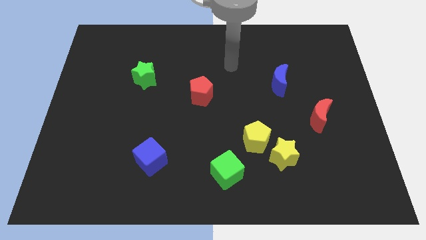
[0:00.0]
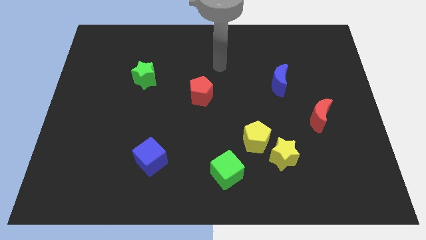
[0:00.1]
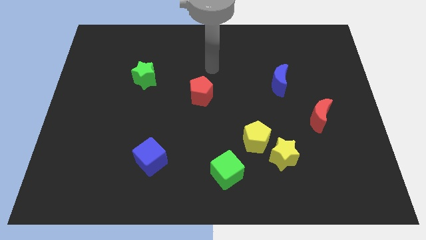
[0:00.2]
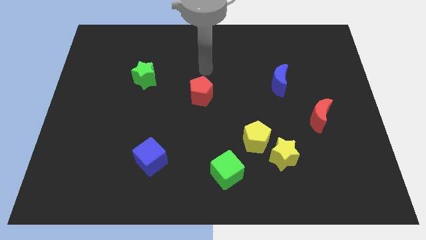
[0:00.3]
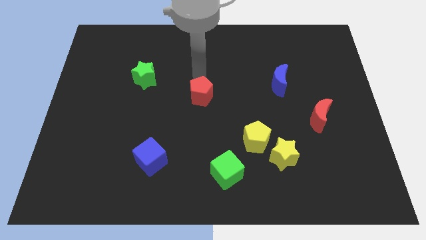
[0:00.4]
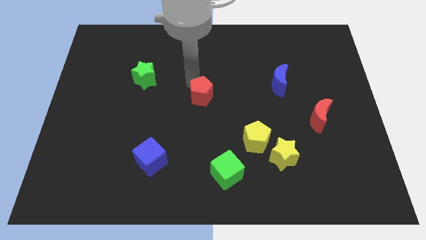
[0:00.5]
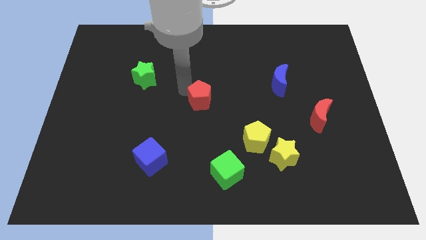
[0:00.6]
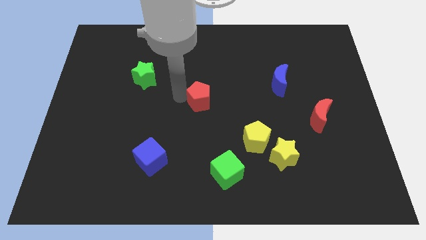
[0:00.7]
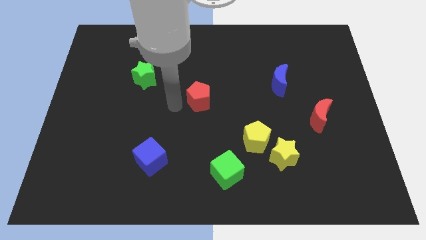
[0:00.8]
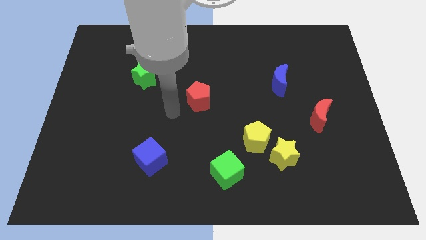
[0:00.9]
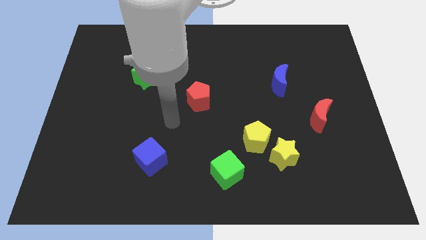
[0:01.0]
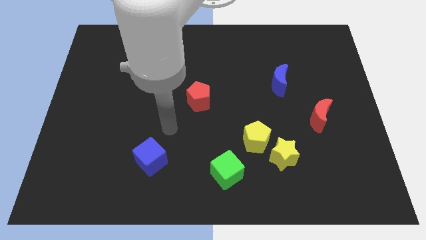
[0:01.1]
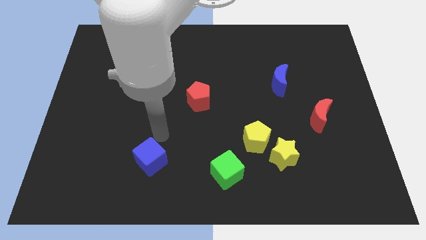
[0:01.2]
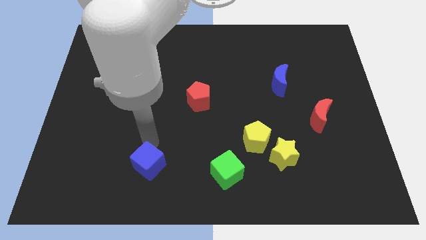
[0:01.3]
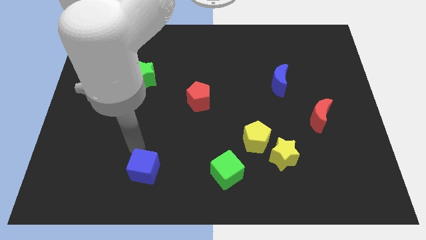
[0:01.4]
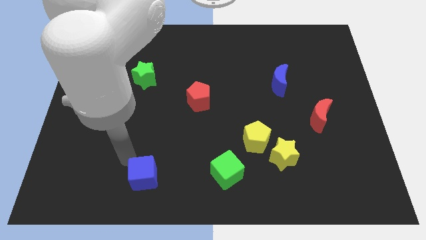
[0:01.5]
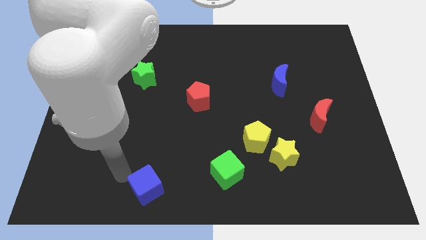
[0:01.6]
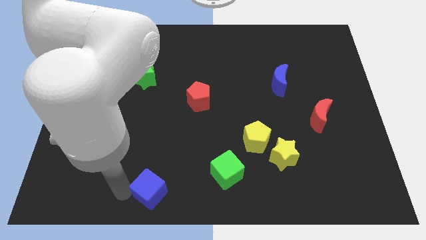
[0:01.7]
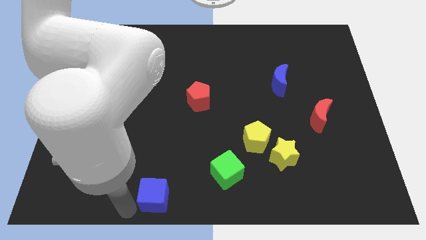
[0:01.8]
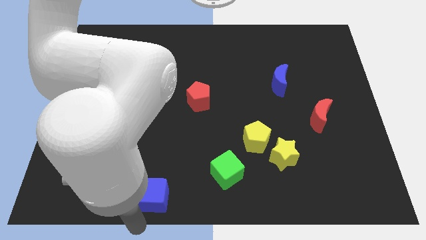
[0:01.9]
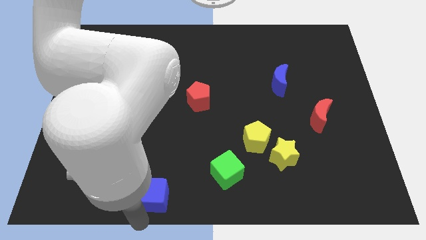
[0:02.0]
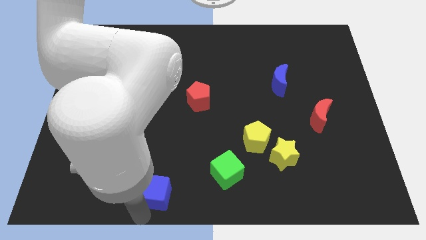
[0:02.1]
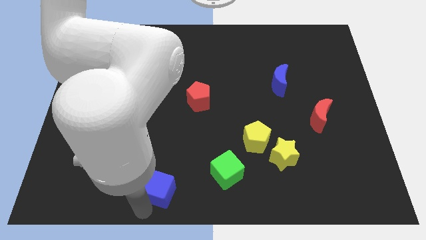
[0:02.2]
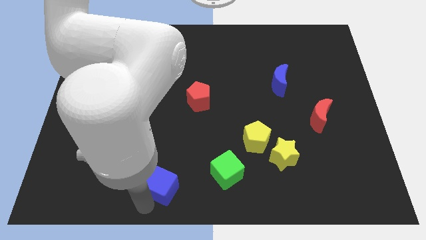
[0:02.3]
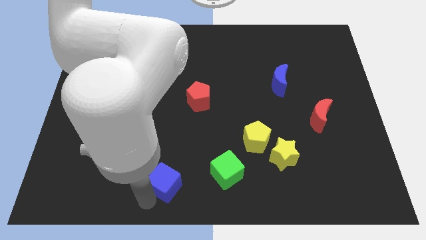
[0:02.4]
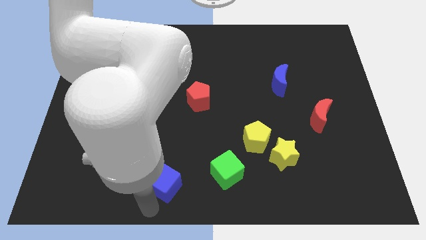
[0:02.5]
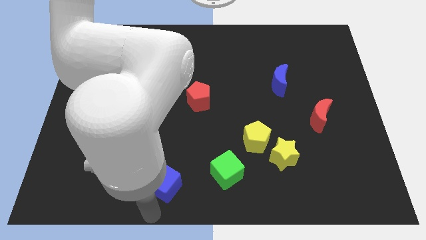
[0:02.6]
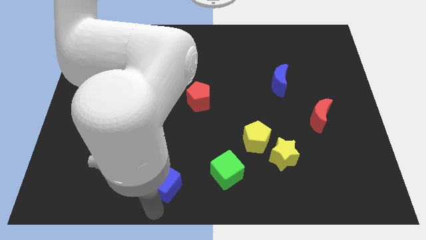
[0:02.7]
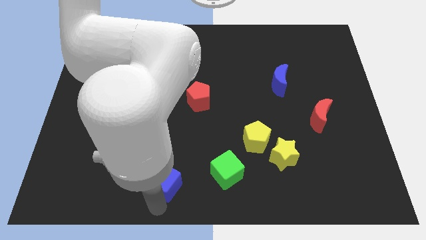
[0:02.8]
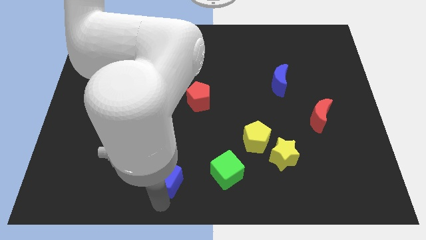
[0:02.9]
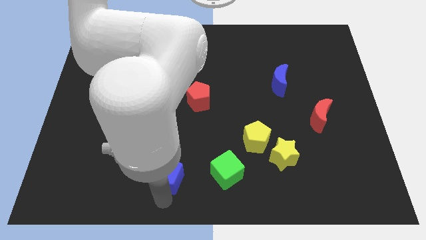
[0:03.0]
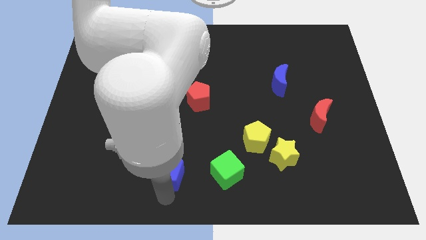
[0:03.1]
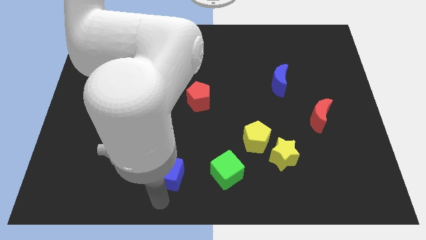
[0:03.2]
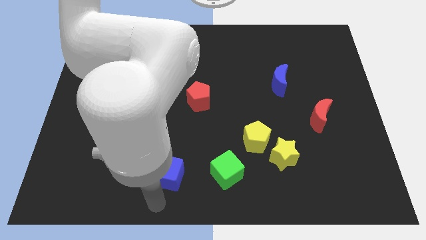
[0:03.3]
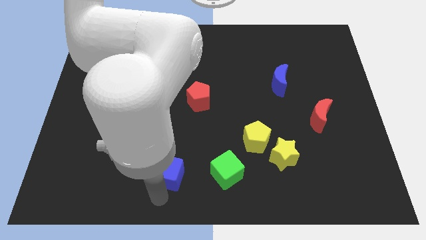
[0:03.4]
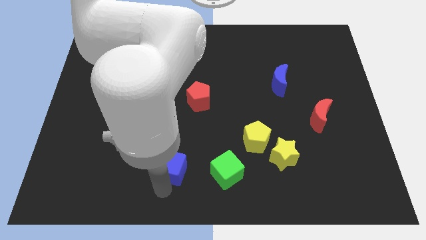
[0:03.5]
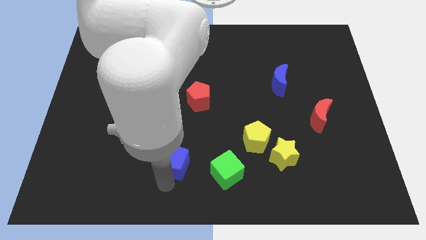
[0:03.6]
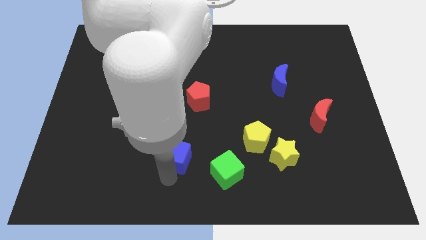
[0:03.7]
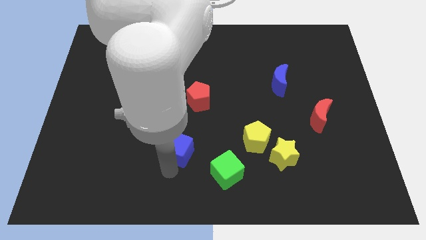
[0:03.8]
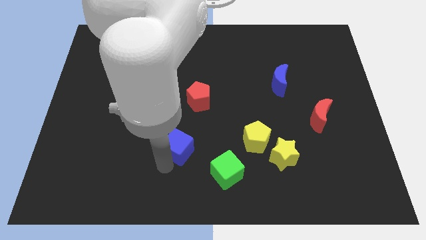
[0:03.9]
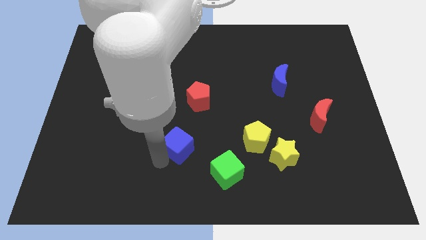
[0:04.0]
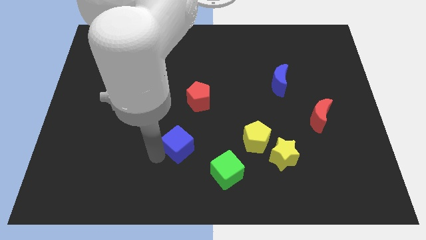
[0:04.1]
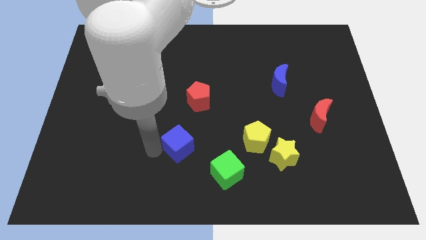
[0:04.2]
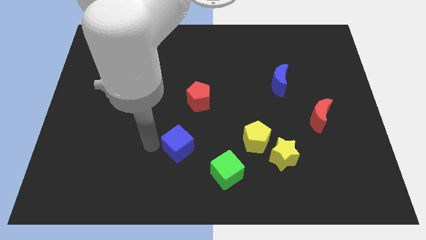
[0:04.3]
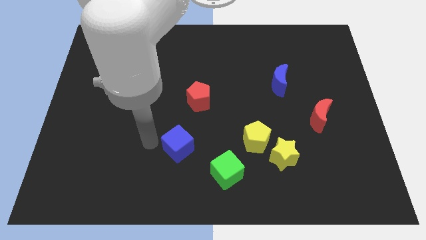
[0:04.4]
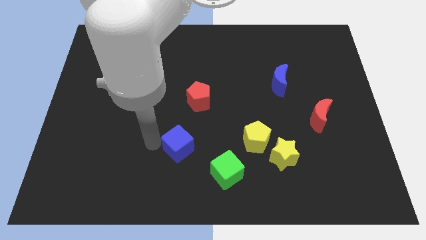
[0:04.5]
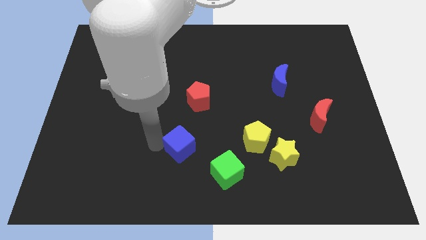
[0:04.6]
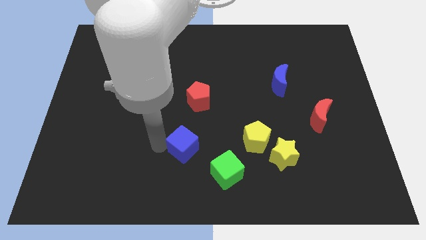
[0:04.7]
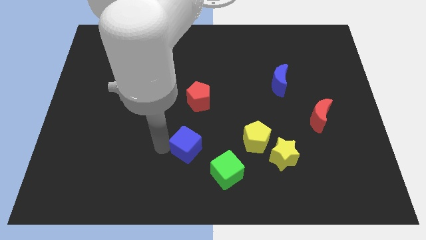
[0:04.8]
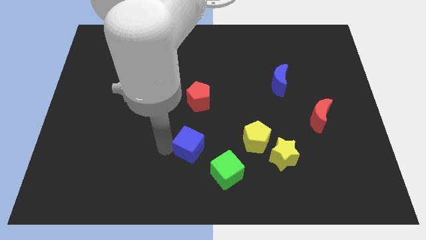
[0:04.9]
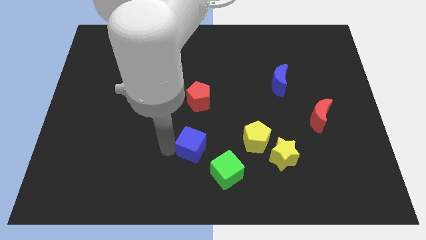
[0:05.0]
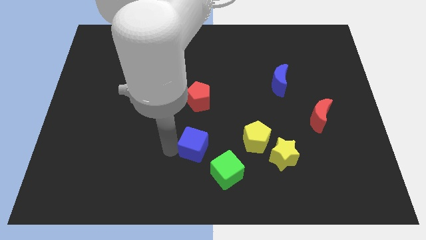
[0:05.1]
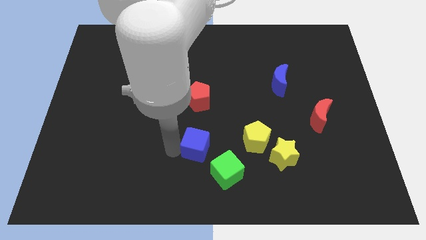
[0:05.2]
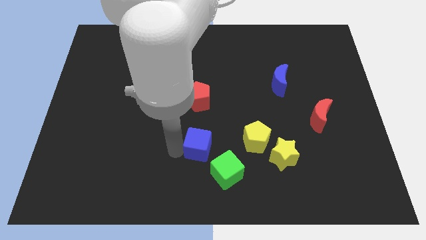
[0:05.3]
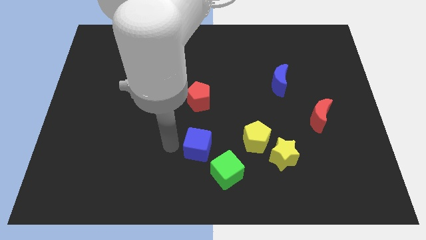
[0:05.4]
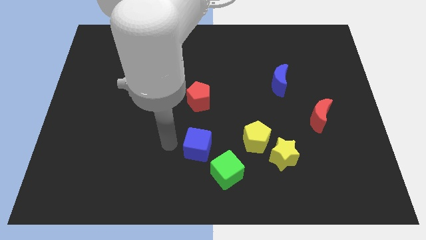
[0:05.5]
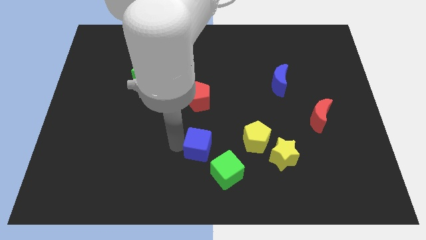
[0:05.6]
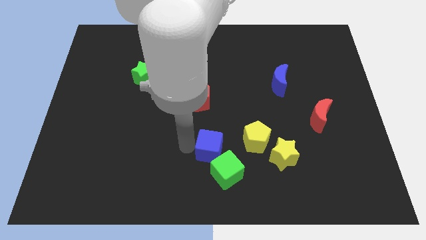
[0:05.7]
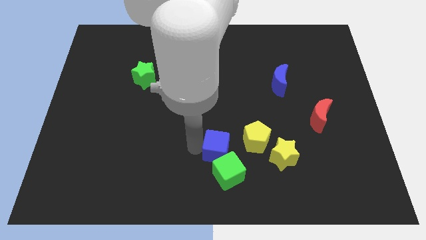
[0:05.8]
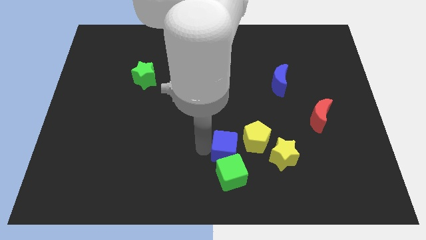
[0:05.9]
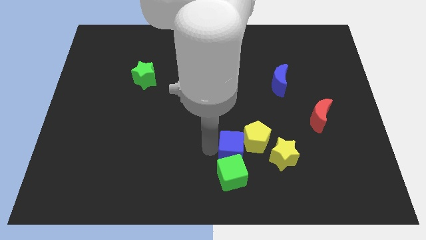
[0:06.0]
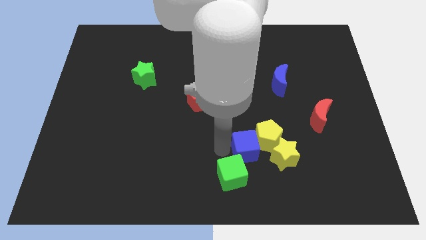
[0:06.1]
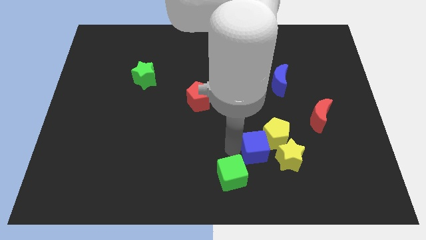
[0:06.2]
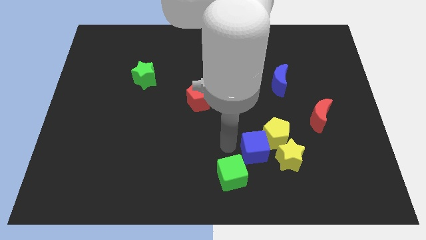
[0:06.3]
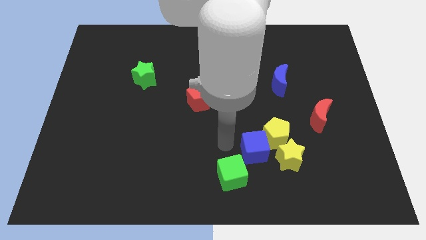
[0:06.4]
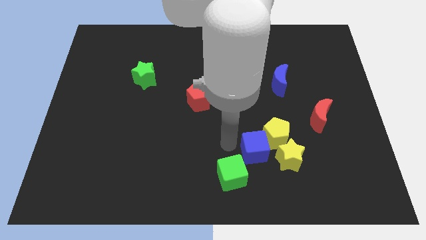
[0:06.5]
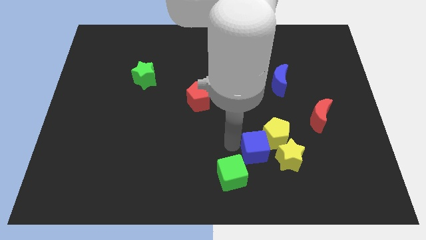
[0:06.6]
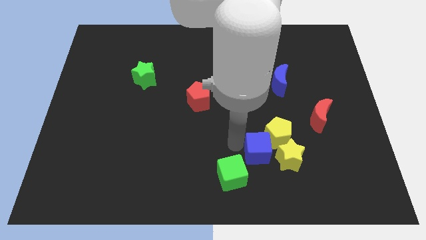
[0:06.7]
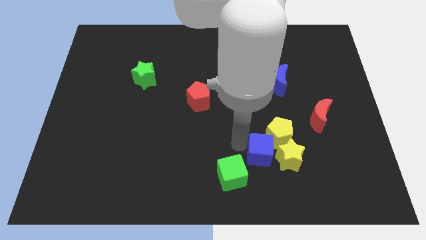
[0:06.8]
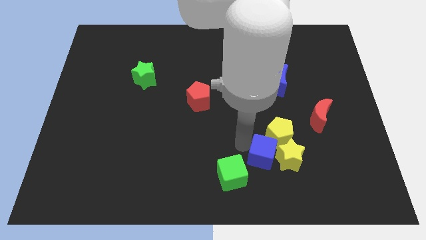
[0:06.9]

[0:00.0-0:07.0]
move the blue cube to the yellow star

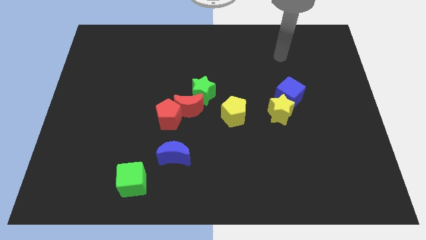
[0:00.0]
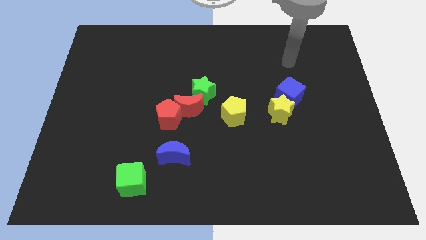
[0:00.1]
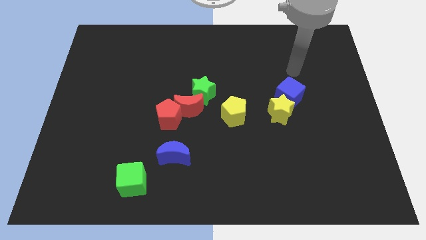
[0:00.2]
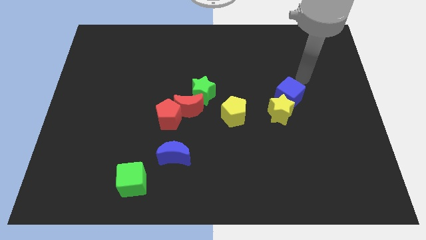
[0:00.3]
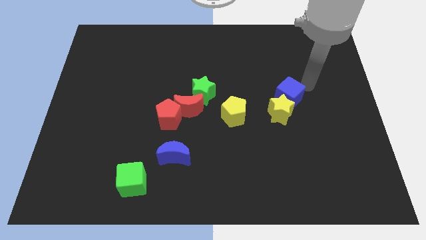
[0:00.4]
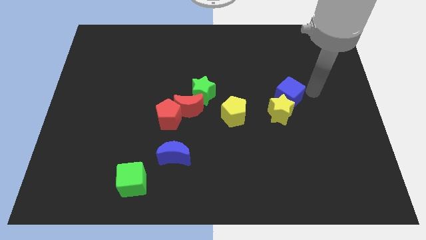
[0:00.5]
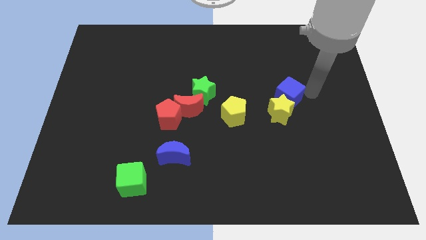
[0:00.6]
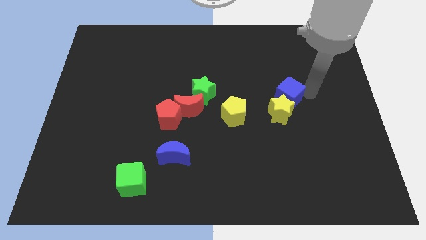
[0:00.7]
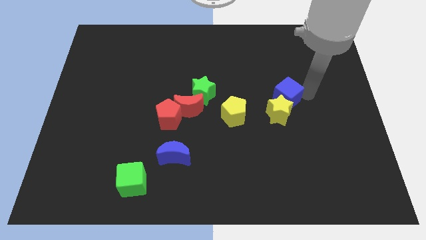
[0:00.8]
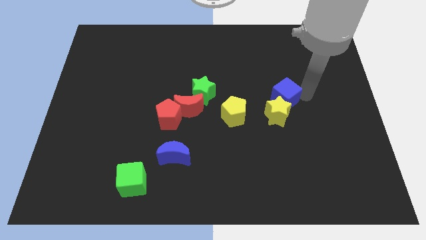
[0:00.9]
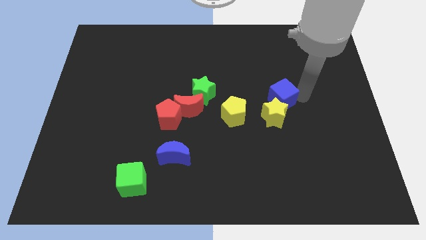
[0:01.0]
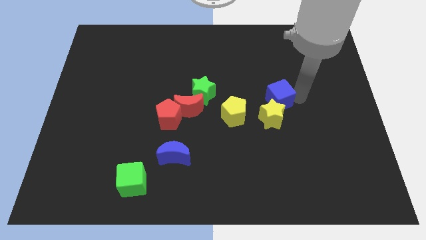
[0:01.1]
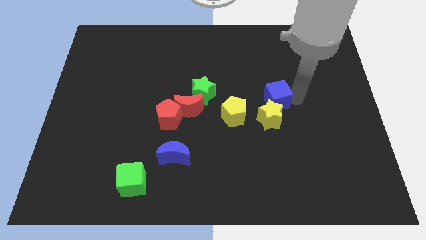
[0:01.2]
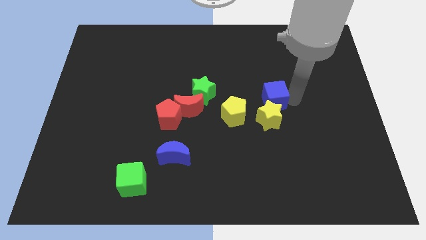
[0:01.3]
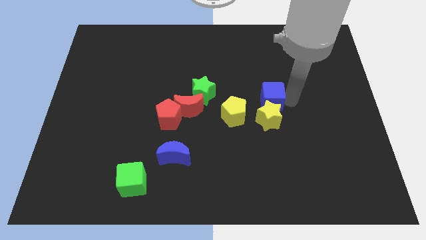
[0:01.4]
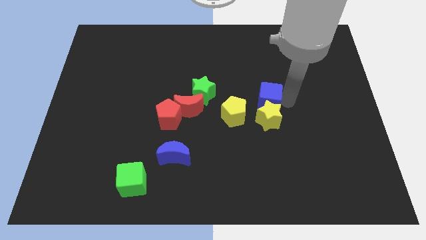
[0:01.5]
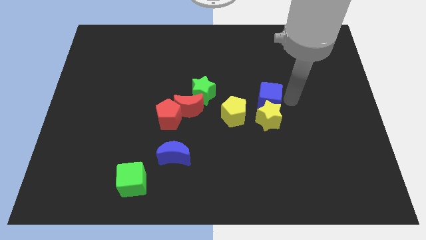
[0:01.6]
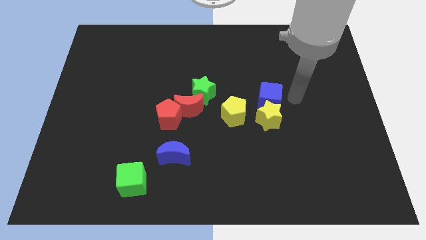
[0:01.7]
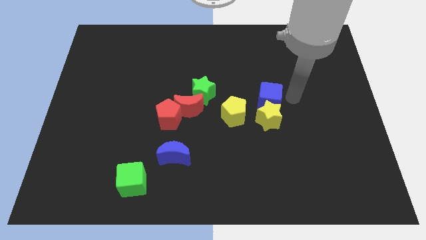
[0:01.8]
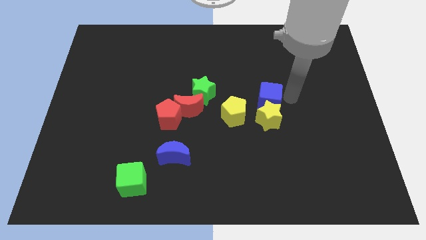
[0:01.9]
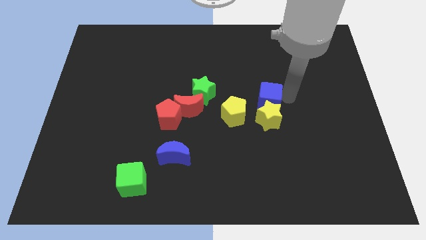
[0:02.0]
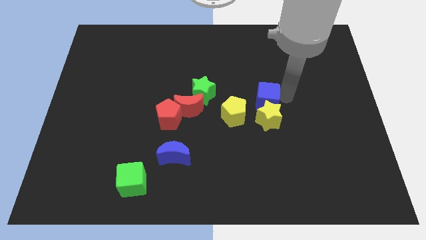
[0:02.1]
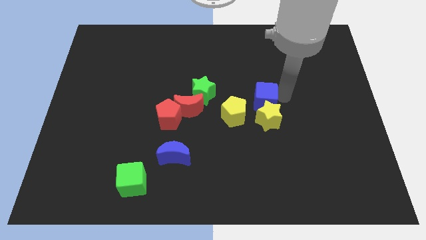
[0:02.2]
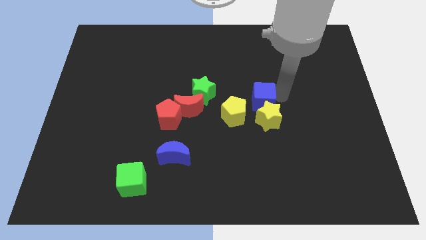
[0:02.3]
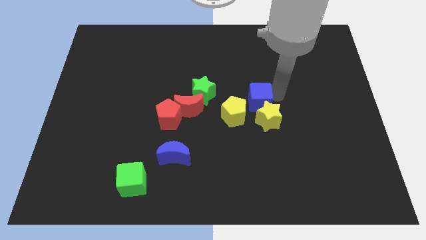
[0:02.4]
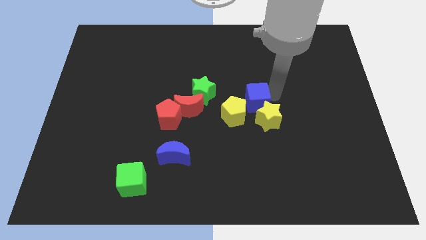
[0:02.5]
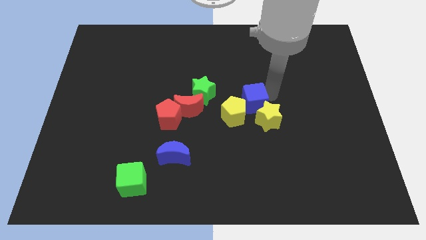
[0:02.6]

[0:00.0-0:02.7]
slide the blue cube next to the yellow pentagon
